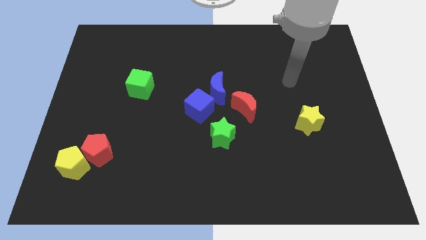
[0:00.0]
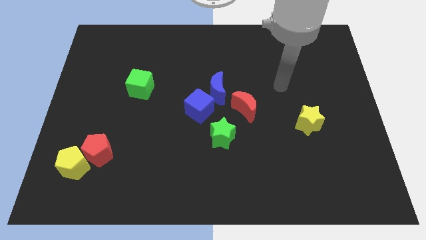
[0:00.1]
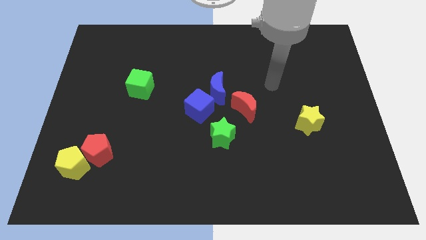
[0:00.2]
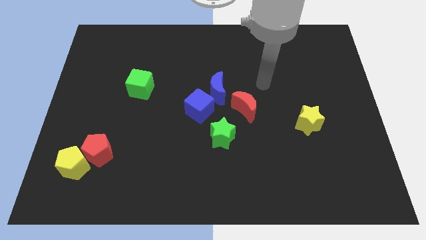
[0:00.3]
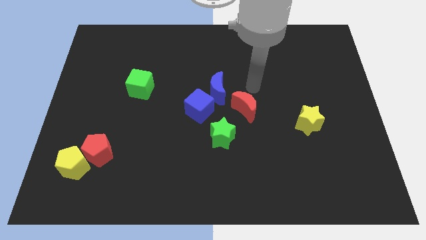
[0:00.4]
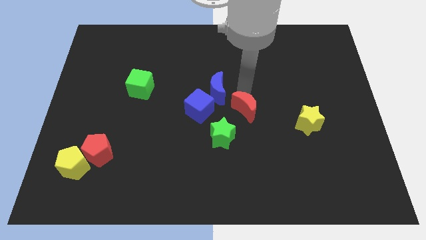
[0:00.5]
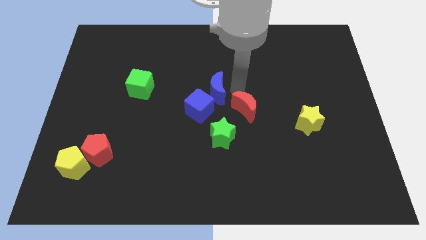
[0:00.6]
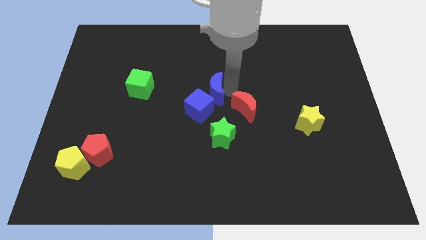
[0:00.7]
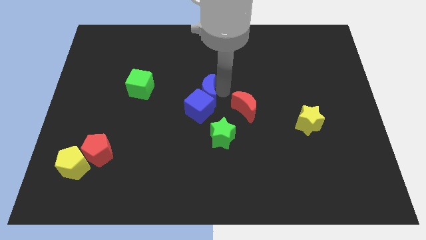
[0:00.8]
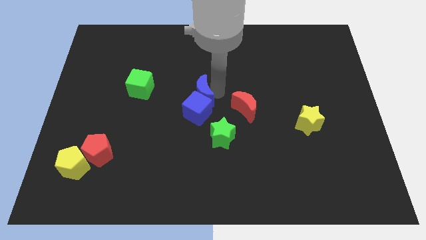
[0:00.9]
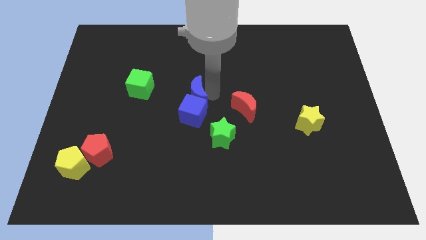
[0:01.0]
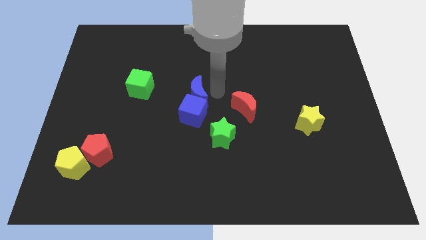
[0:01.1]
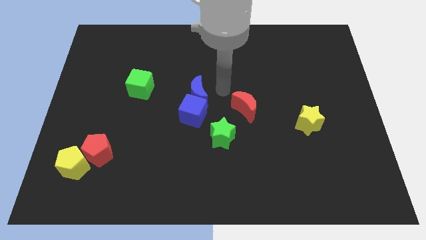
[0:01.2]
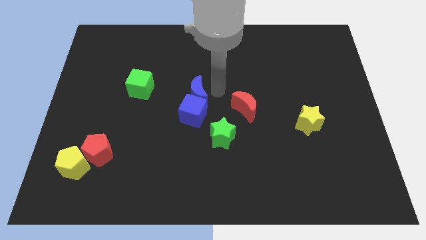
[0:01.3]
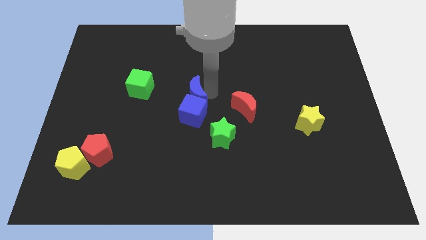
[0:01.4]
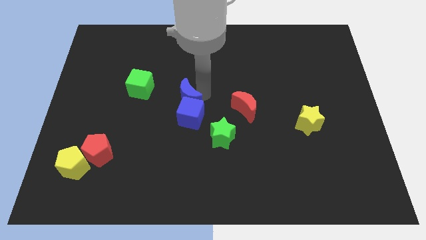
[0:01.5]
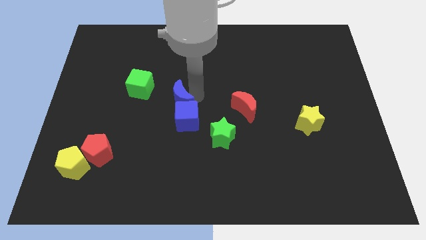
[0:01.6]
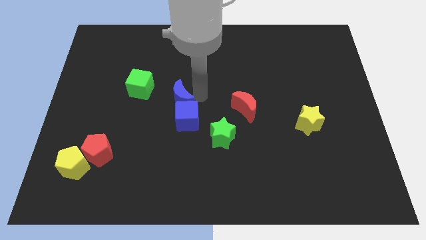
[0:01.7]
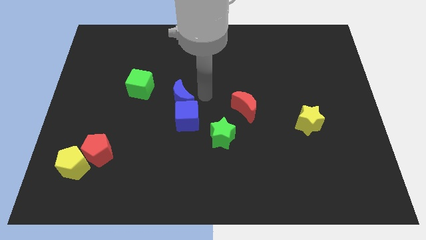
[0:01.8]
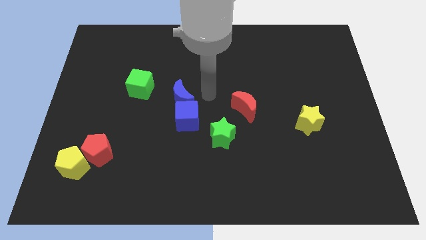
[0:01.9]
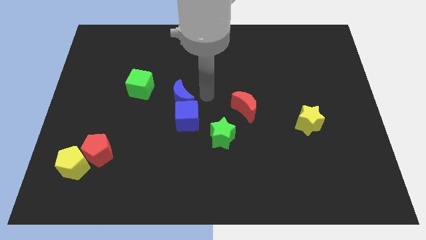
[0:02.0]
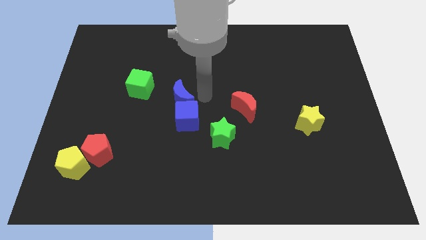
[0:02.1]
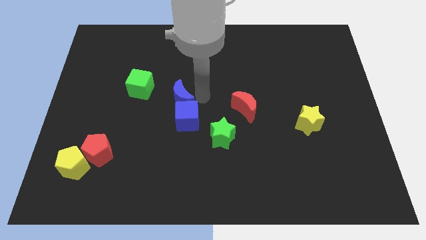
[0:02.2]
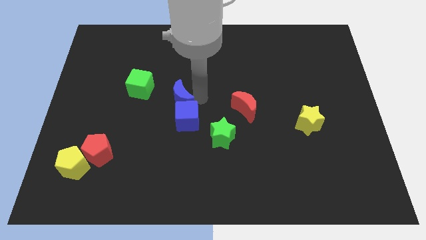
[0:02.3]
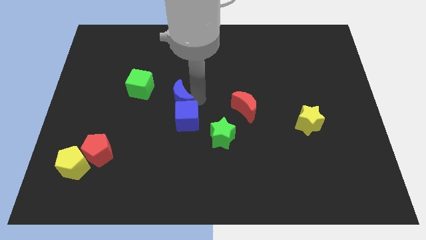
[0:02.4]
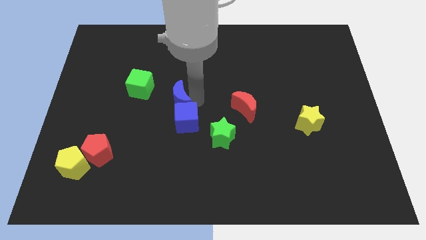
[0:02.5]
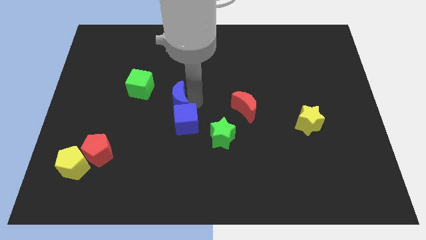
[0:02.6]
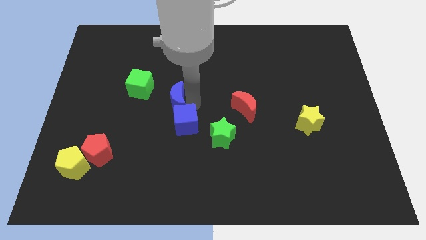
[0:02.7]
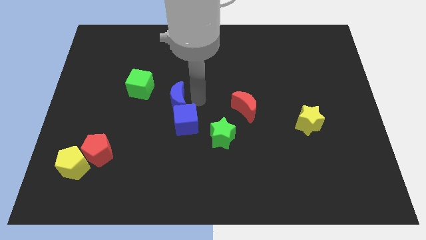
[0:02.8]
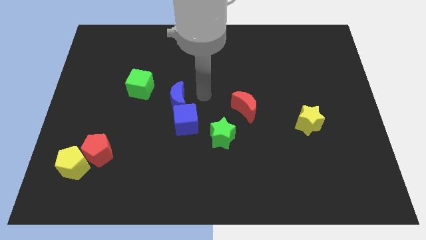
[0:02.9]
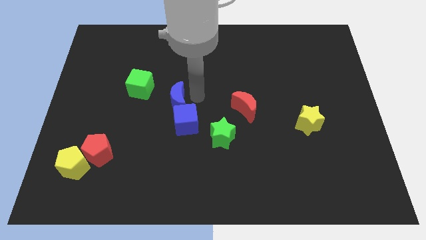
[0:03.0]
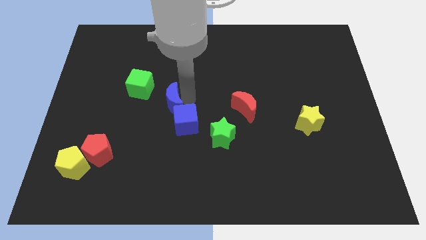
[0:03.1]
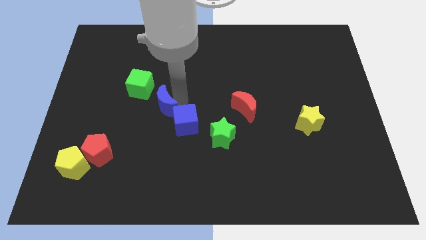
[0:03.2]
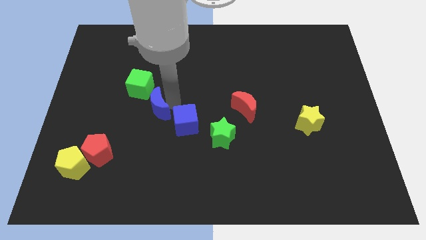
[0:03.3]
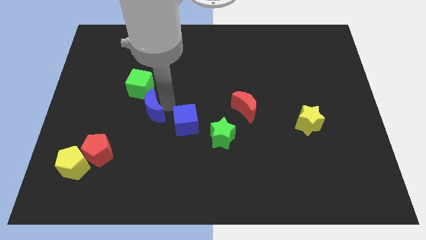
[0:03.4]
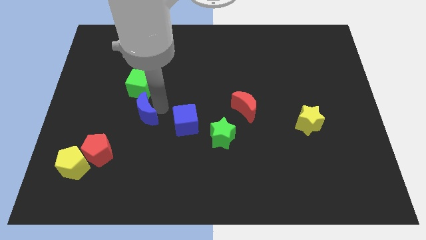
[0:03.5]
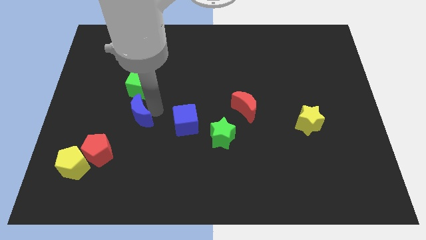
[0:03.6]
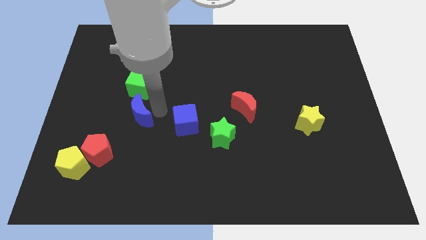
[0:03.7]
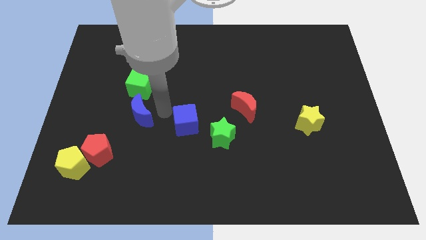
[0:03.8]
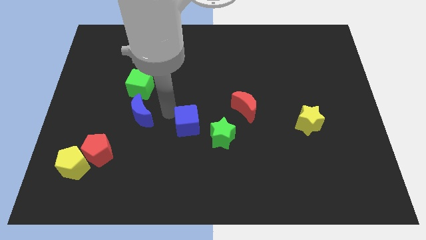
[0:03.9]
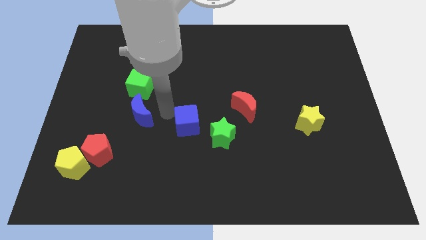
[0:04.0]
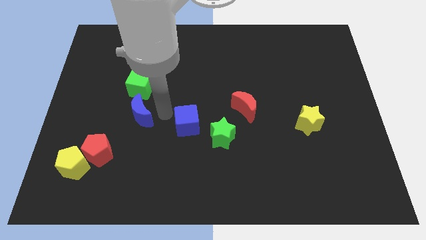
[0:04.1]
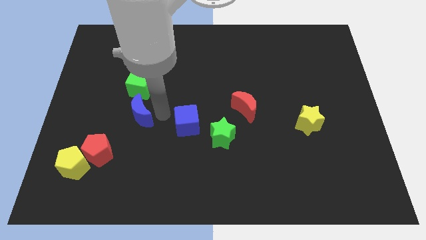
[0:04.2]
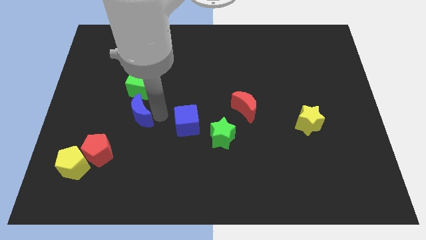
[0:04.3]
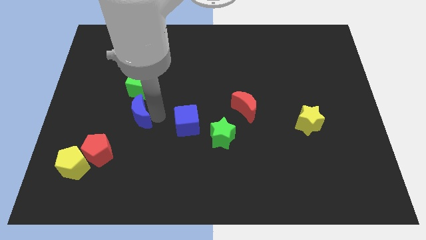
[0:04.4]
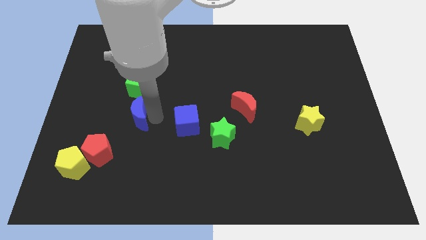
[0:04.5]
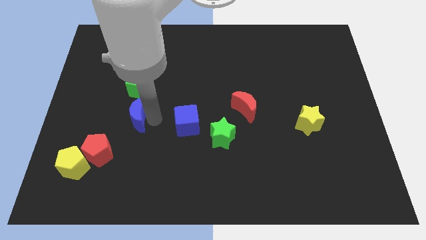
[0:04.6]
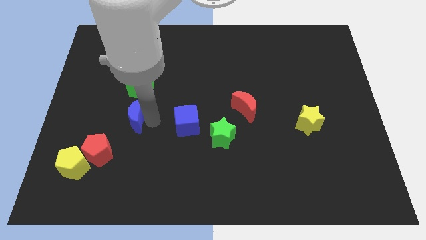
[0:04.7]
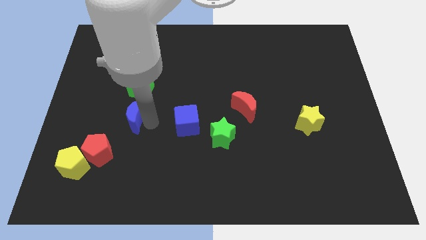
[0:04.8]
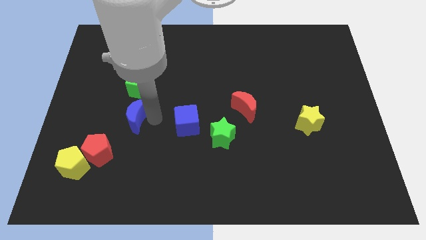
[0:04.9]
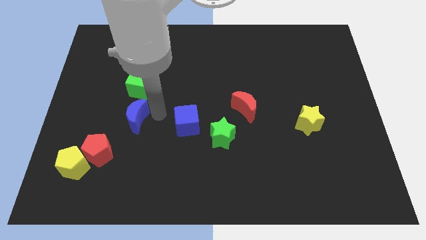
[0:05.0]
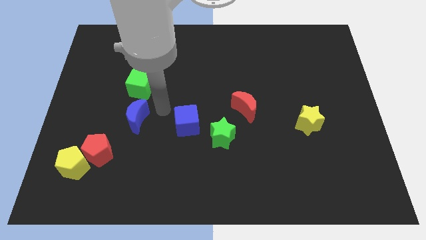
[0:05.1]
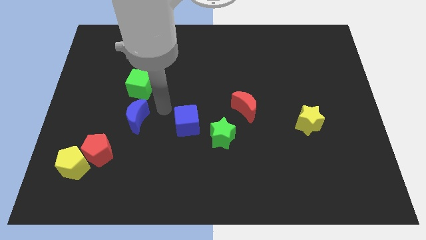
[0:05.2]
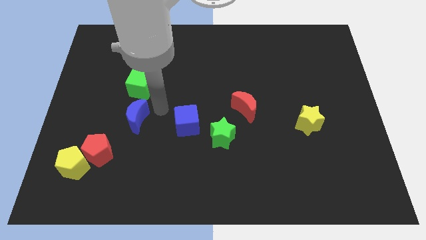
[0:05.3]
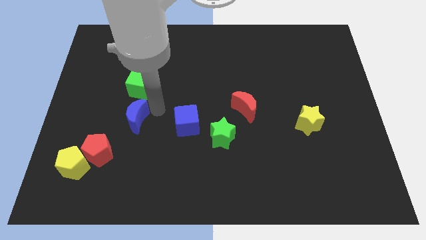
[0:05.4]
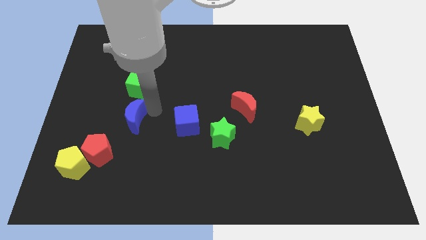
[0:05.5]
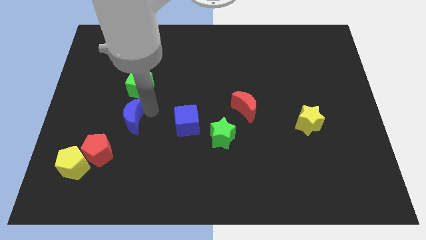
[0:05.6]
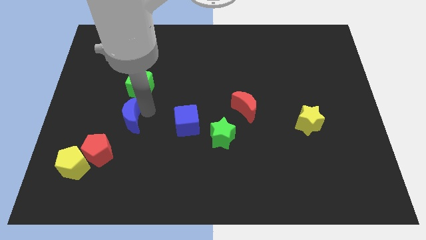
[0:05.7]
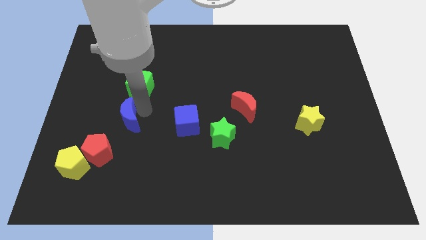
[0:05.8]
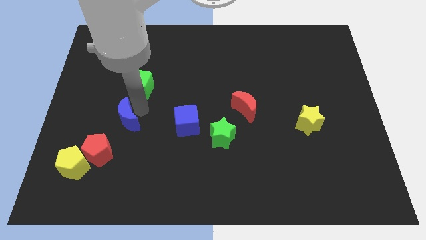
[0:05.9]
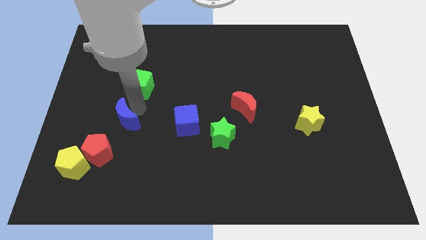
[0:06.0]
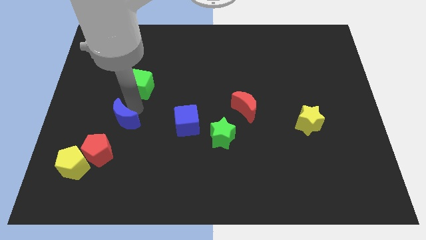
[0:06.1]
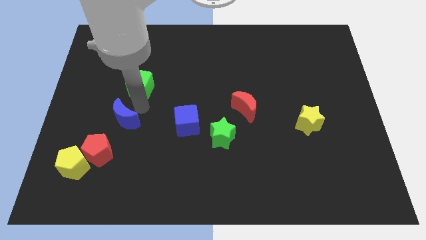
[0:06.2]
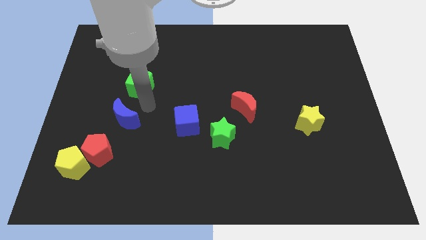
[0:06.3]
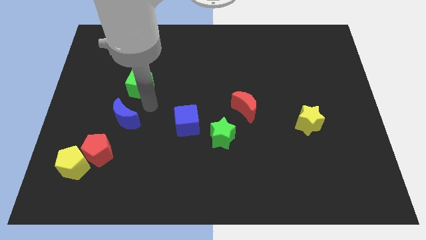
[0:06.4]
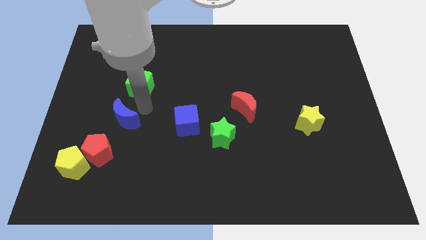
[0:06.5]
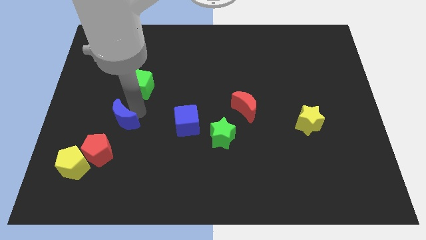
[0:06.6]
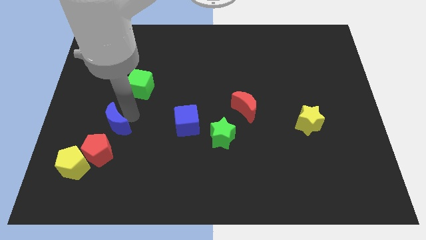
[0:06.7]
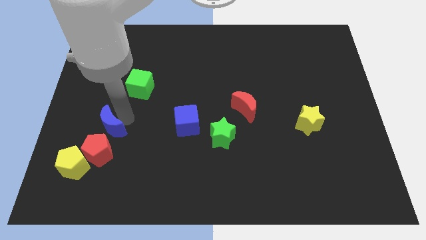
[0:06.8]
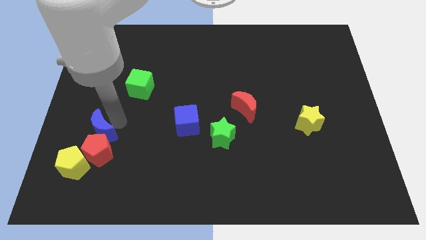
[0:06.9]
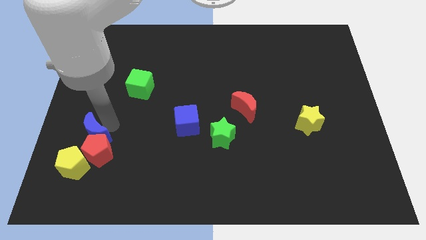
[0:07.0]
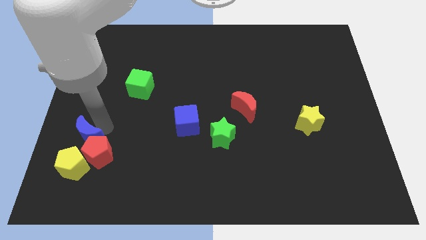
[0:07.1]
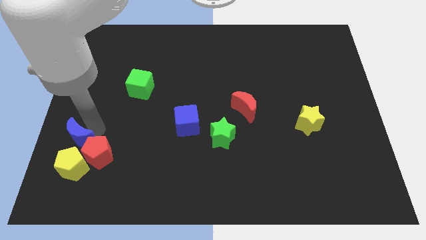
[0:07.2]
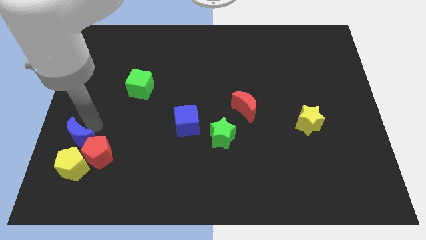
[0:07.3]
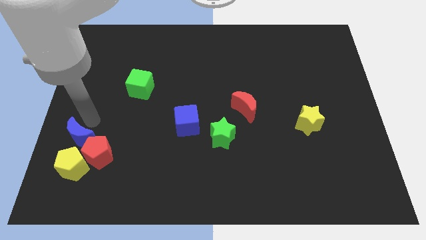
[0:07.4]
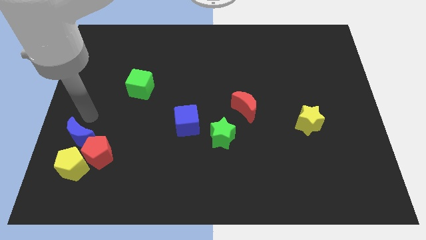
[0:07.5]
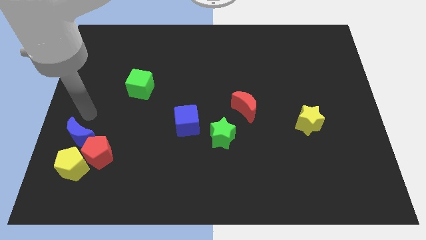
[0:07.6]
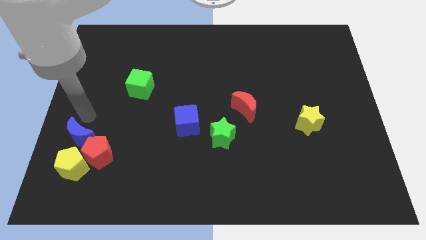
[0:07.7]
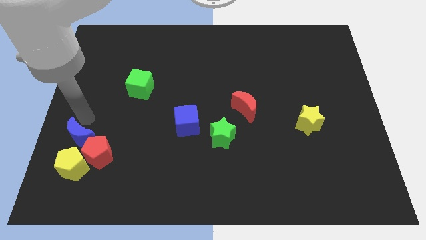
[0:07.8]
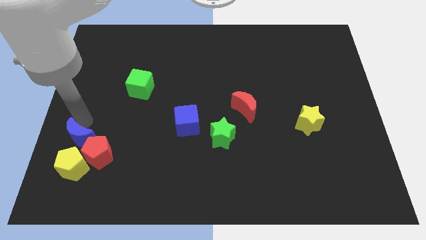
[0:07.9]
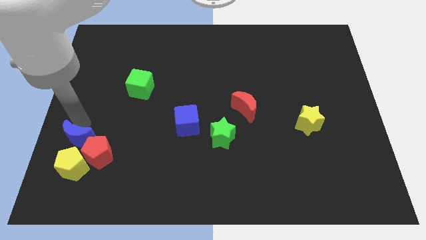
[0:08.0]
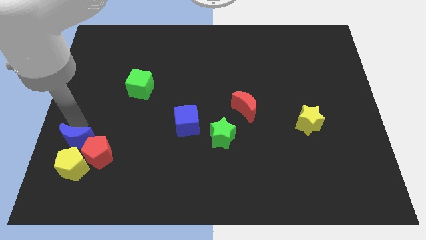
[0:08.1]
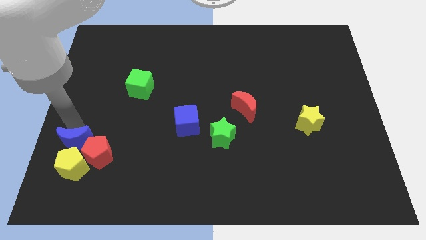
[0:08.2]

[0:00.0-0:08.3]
move the blue moon close to the yellow pentagon
